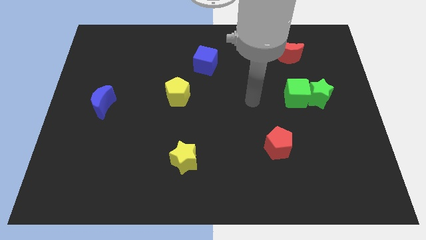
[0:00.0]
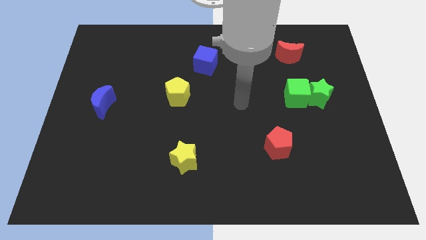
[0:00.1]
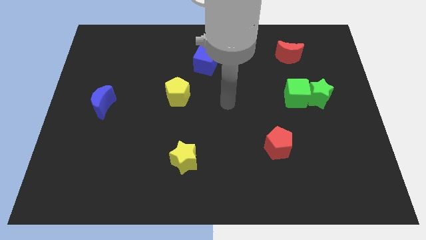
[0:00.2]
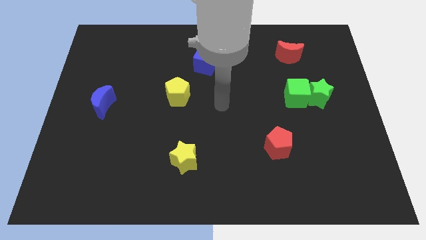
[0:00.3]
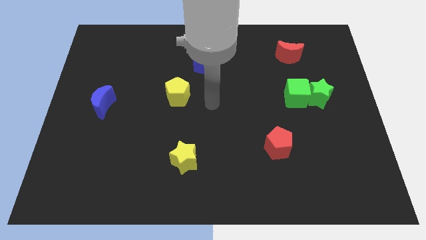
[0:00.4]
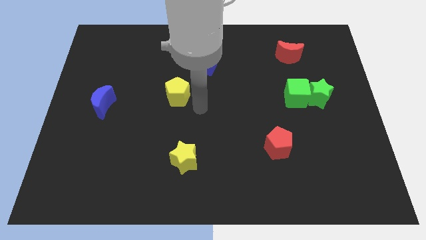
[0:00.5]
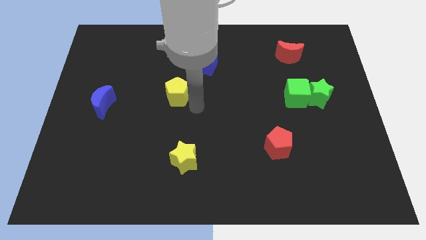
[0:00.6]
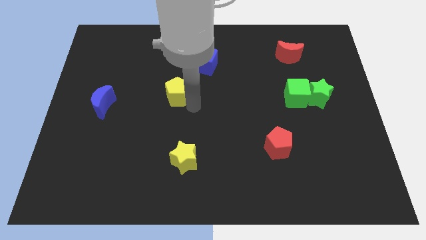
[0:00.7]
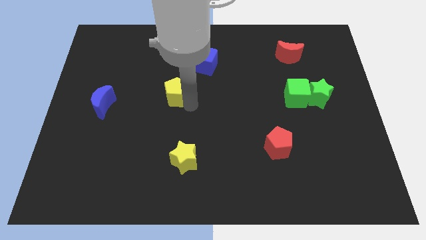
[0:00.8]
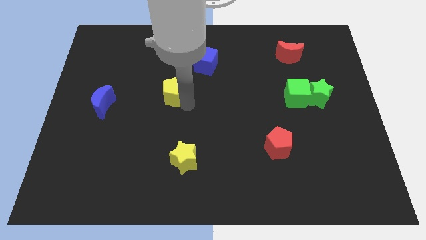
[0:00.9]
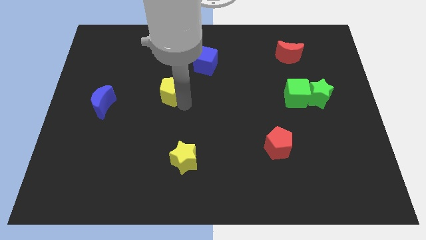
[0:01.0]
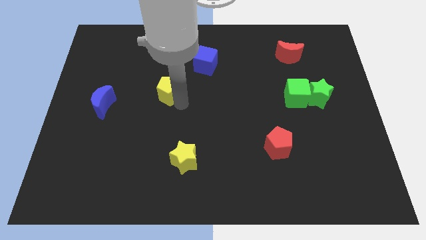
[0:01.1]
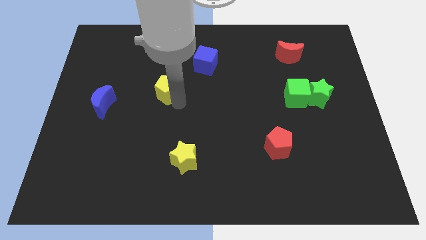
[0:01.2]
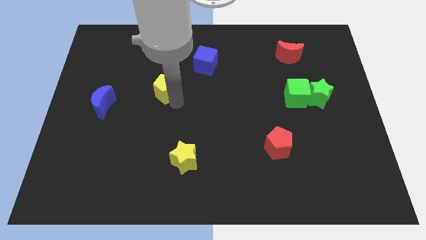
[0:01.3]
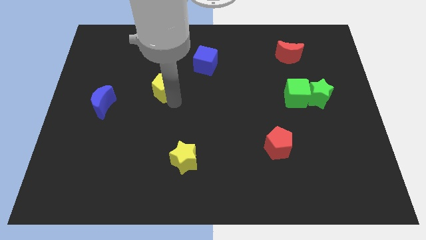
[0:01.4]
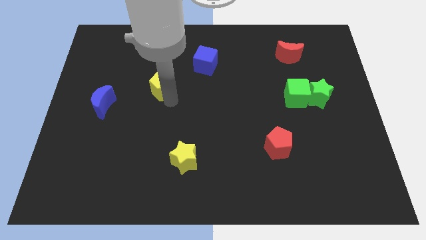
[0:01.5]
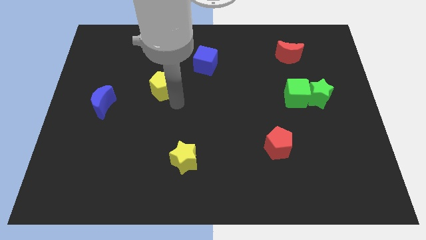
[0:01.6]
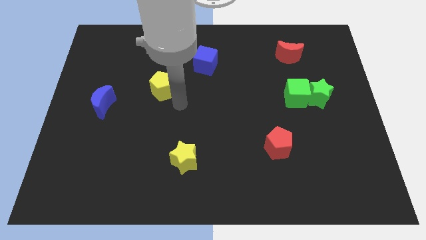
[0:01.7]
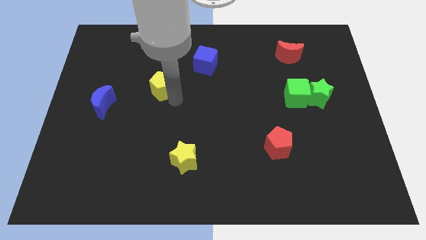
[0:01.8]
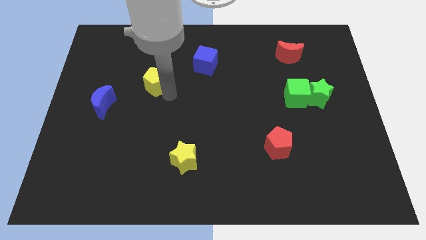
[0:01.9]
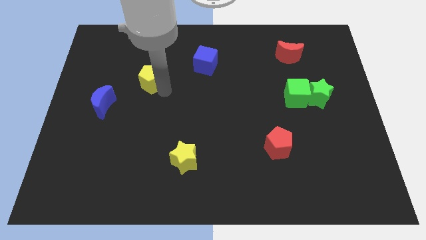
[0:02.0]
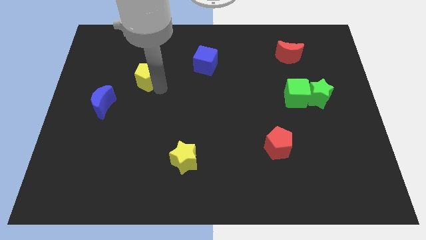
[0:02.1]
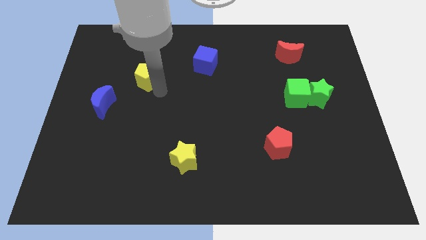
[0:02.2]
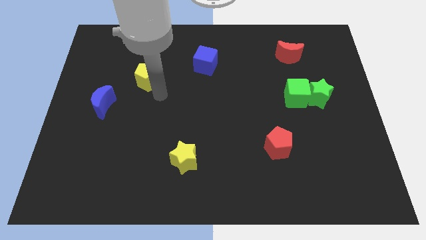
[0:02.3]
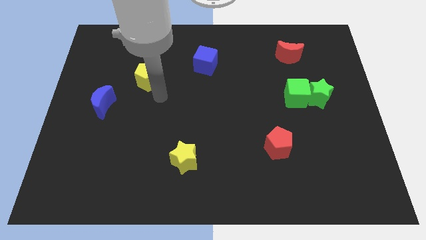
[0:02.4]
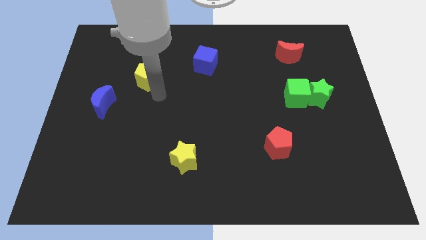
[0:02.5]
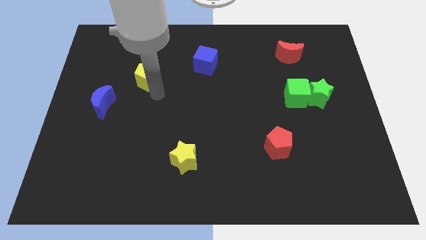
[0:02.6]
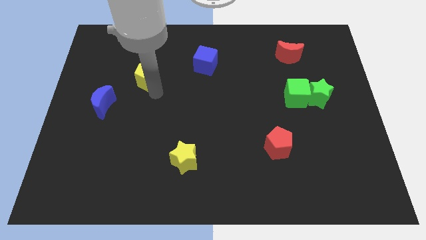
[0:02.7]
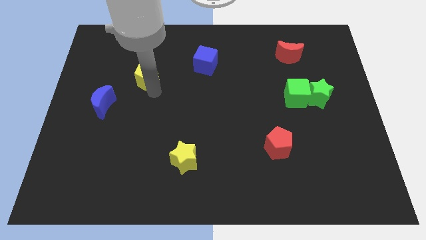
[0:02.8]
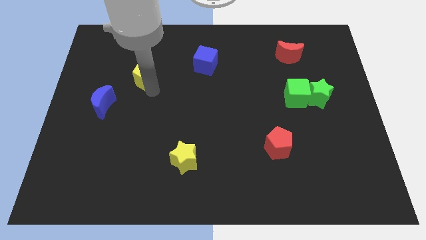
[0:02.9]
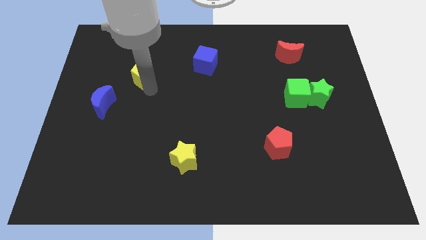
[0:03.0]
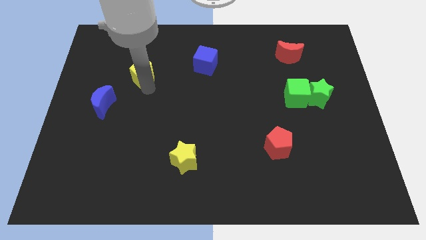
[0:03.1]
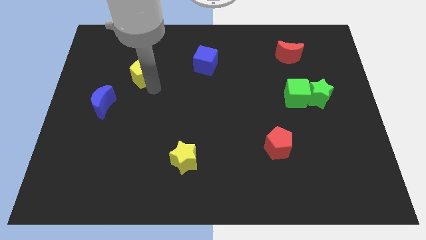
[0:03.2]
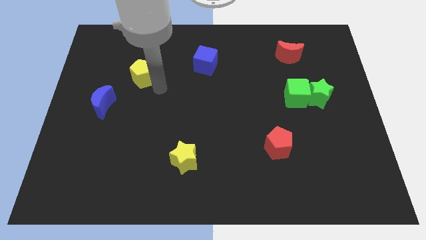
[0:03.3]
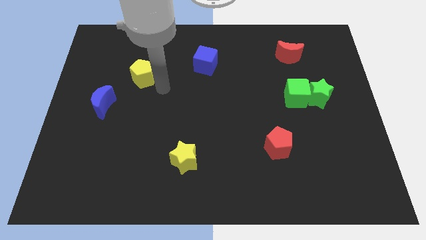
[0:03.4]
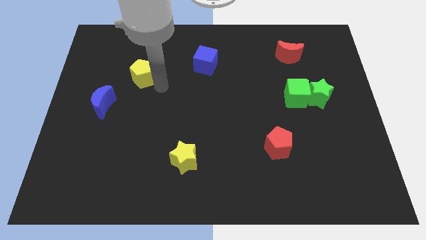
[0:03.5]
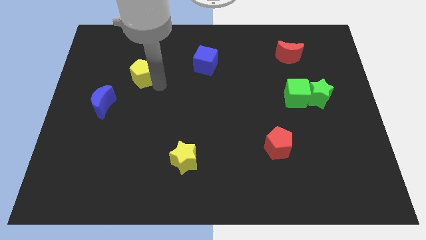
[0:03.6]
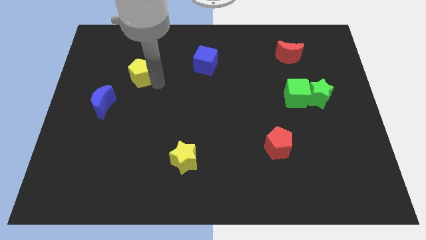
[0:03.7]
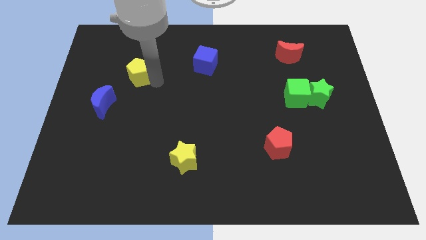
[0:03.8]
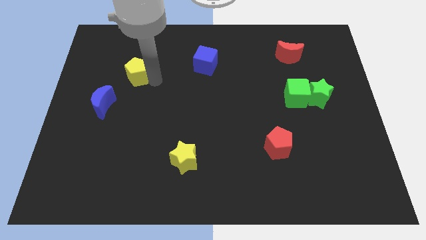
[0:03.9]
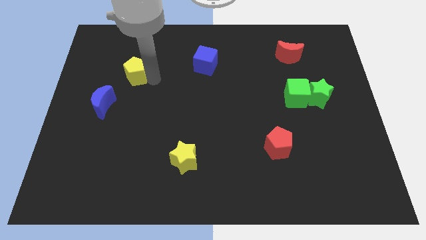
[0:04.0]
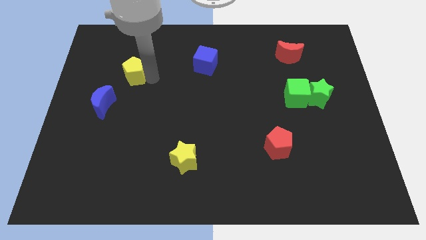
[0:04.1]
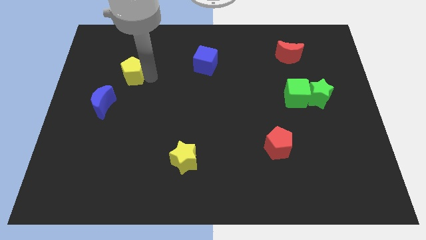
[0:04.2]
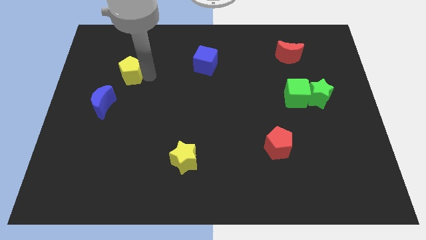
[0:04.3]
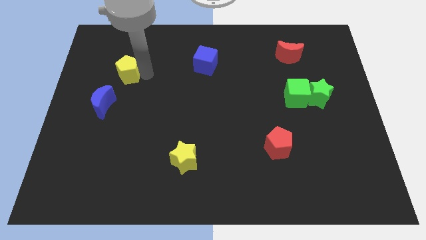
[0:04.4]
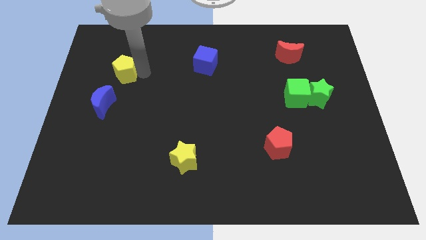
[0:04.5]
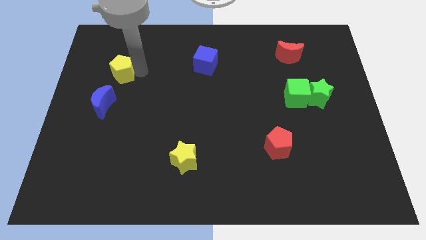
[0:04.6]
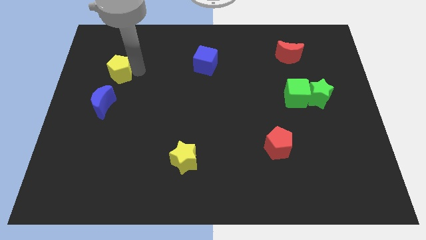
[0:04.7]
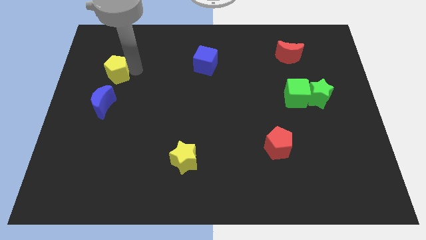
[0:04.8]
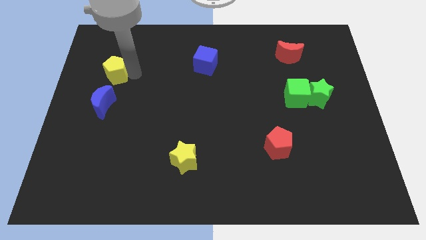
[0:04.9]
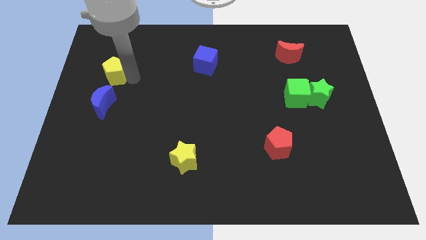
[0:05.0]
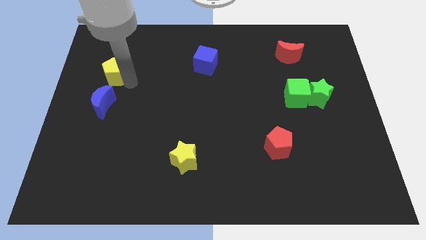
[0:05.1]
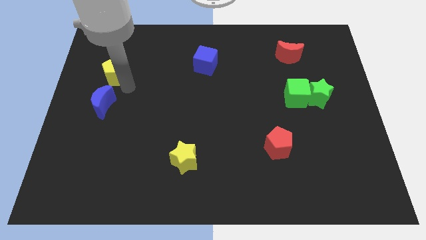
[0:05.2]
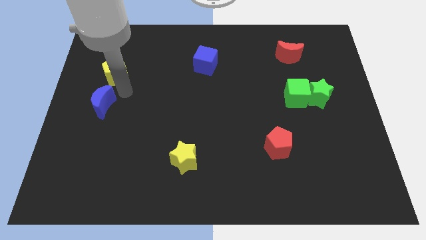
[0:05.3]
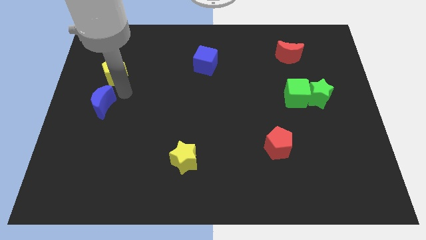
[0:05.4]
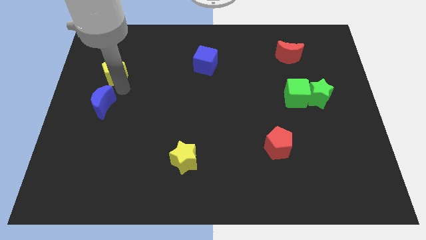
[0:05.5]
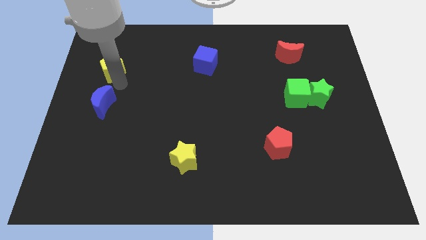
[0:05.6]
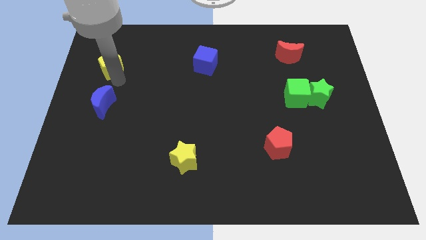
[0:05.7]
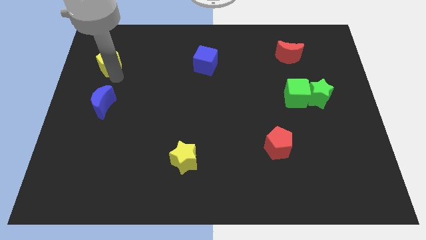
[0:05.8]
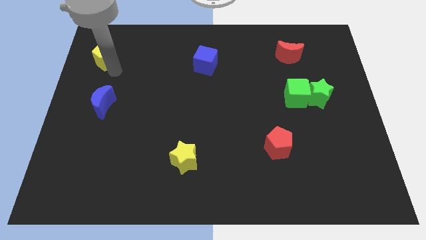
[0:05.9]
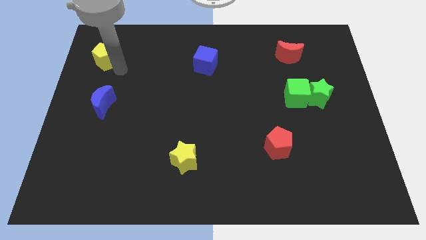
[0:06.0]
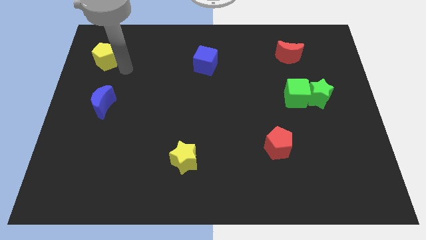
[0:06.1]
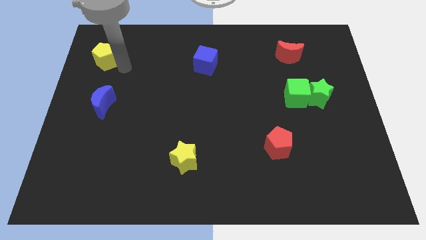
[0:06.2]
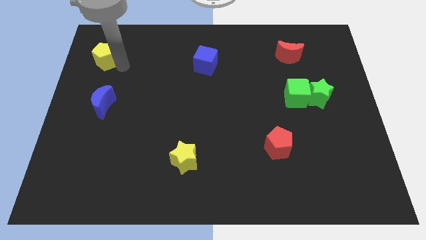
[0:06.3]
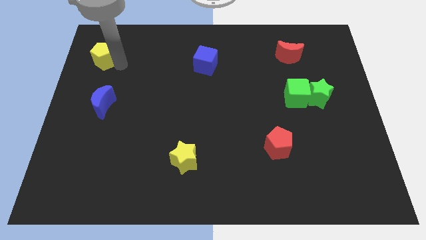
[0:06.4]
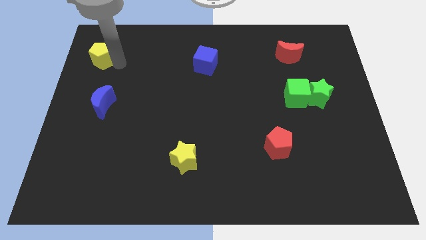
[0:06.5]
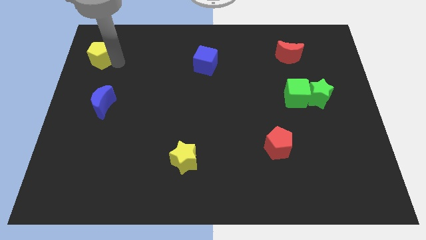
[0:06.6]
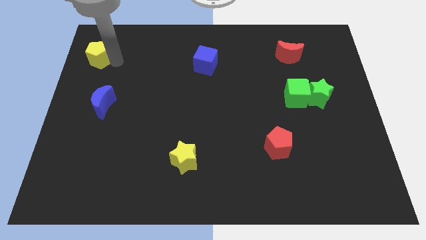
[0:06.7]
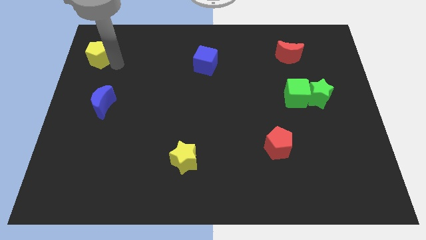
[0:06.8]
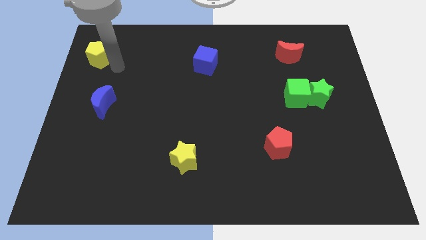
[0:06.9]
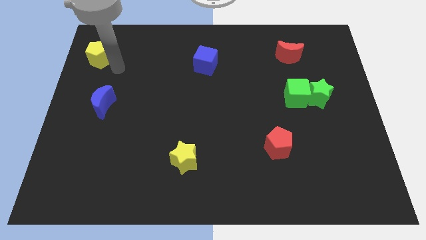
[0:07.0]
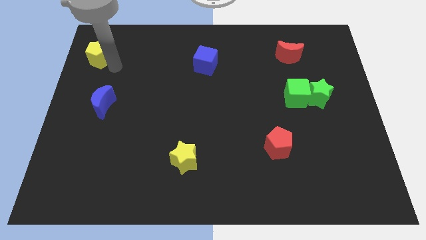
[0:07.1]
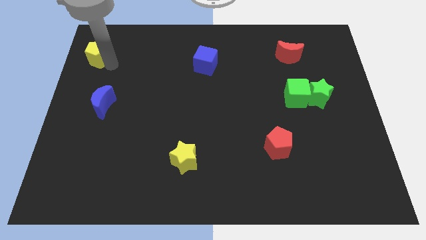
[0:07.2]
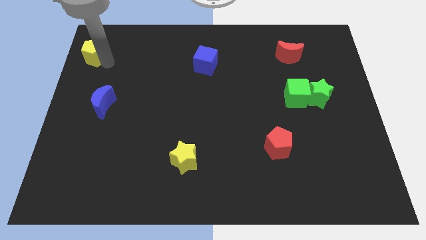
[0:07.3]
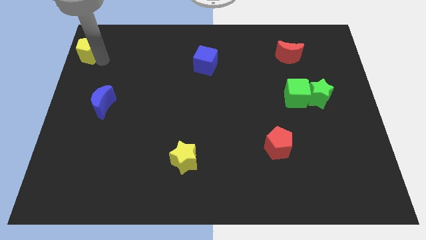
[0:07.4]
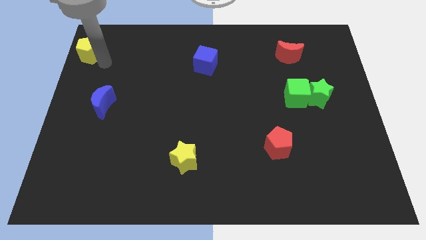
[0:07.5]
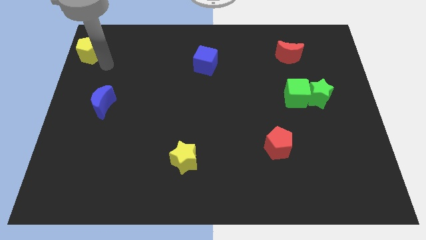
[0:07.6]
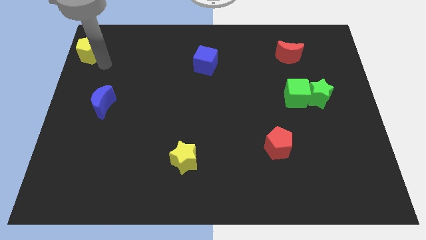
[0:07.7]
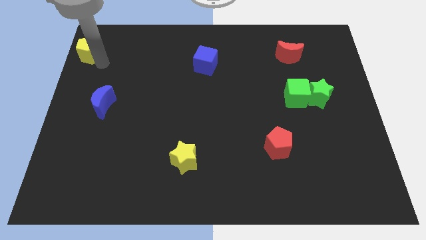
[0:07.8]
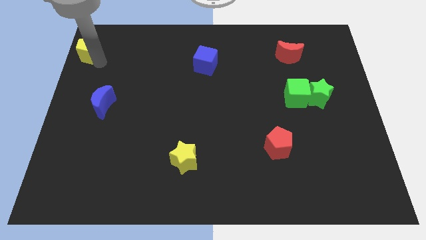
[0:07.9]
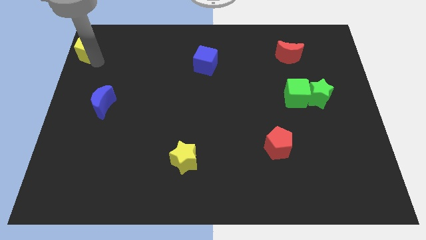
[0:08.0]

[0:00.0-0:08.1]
slide the yellow pentagon to the top left of the board
